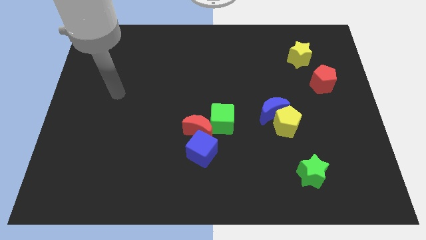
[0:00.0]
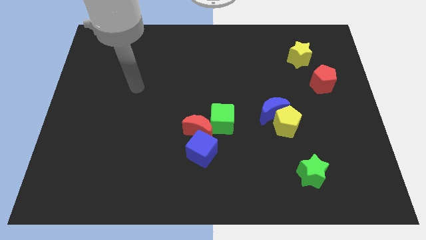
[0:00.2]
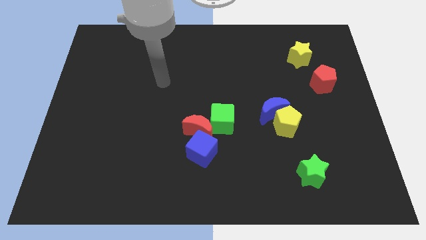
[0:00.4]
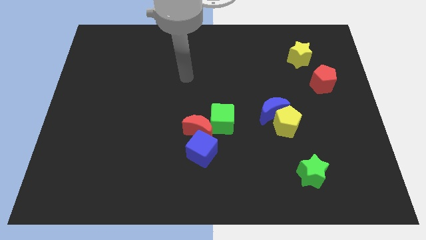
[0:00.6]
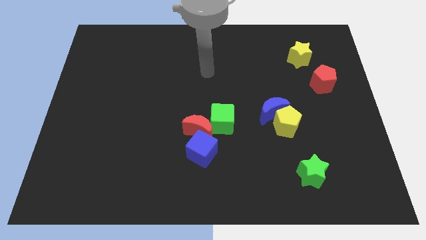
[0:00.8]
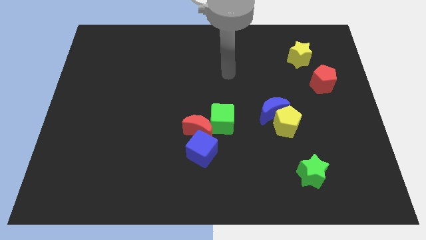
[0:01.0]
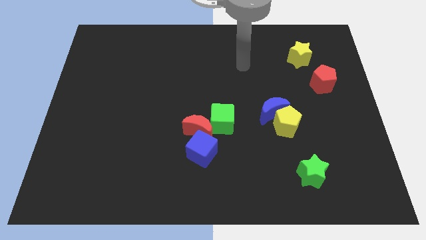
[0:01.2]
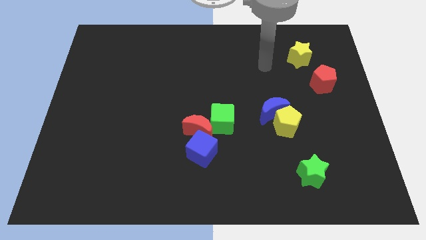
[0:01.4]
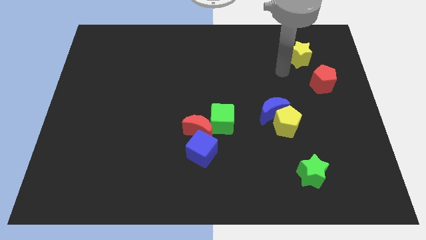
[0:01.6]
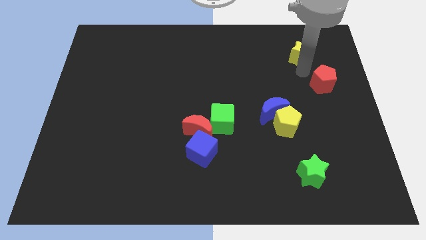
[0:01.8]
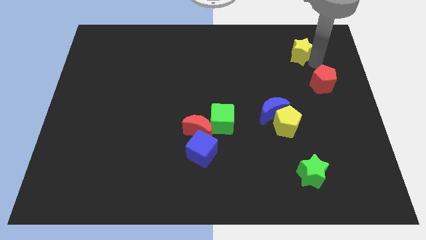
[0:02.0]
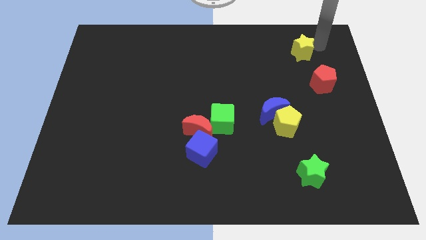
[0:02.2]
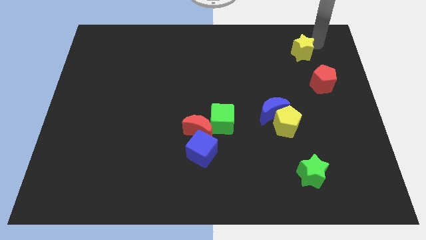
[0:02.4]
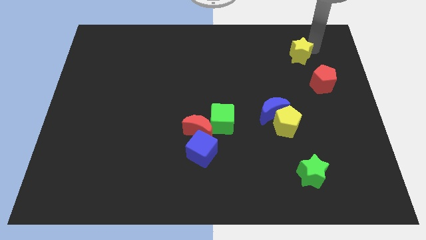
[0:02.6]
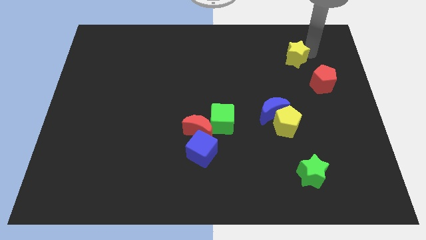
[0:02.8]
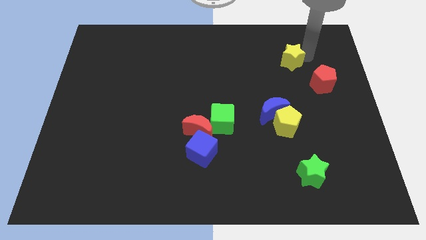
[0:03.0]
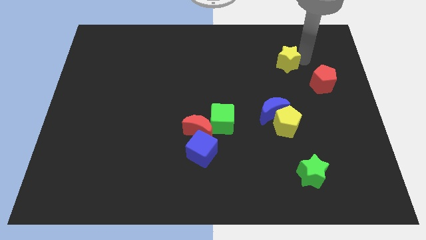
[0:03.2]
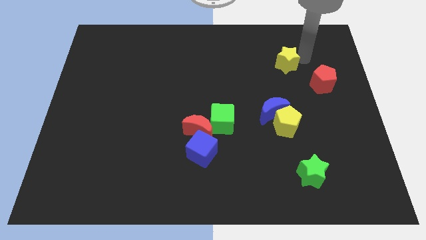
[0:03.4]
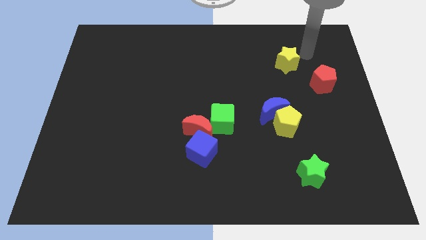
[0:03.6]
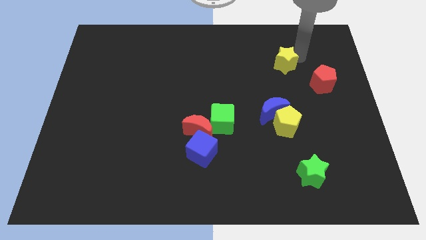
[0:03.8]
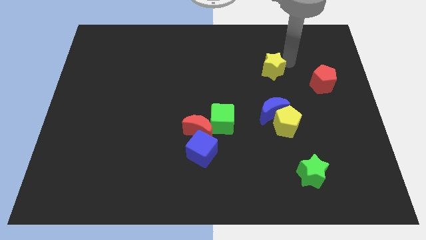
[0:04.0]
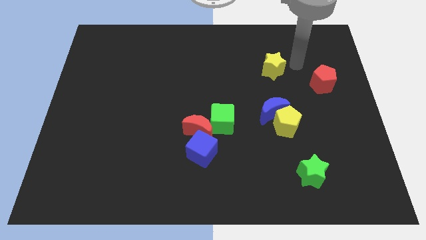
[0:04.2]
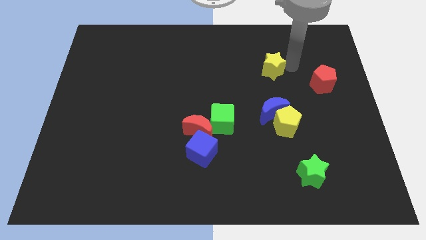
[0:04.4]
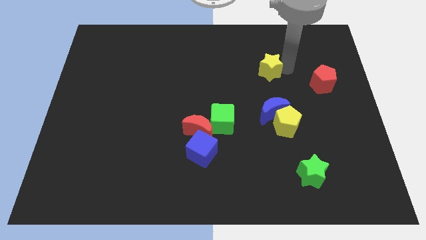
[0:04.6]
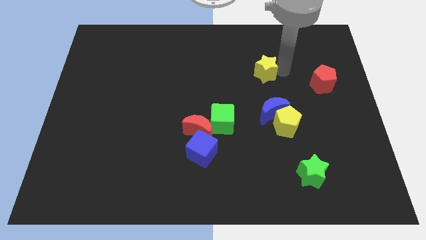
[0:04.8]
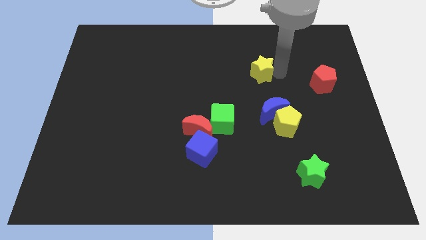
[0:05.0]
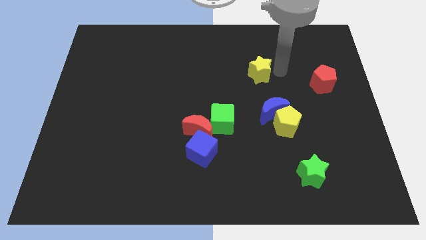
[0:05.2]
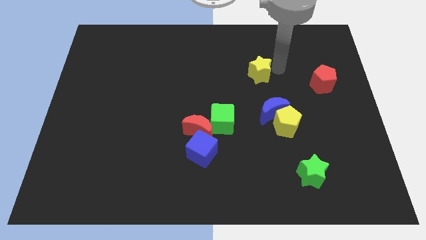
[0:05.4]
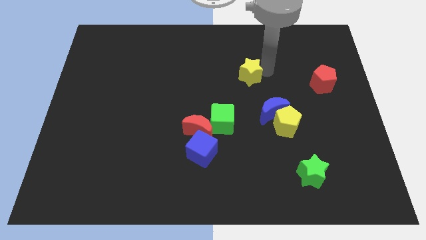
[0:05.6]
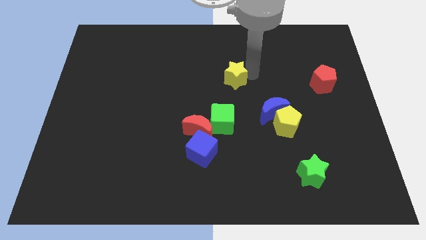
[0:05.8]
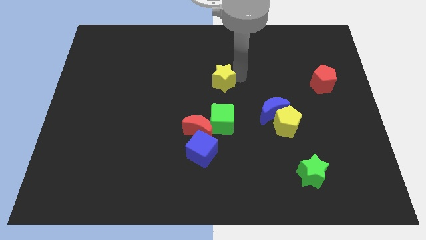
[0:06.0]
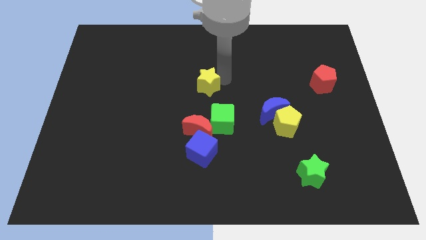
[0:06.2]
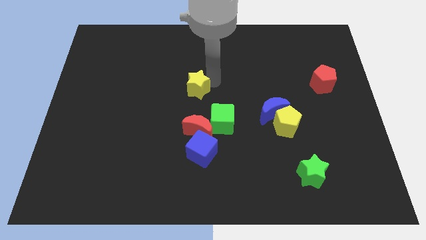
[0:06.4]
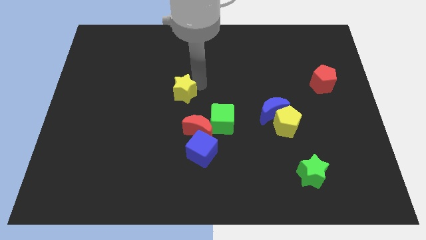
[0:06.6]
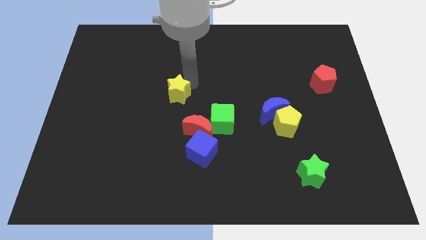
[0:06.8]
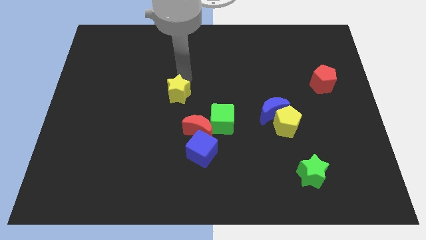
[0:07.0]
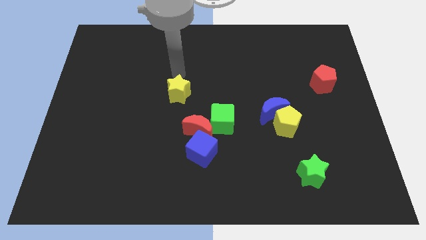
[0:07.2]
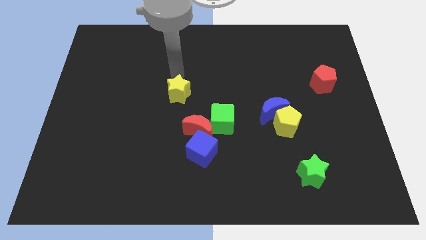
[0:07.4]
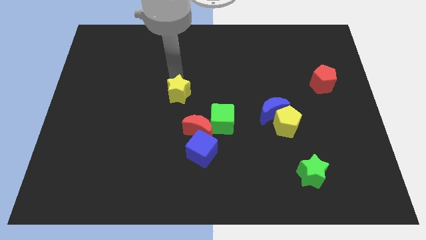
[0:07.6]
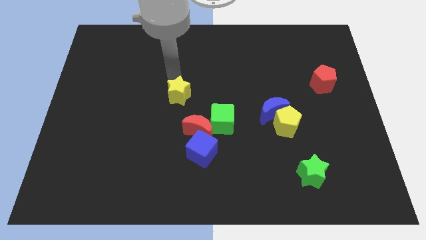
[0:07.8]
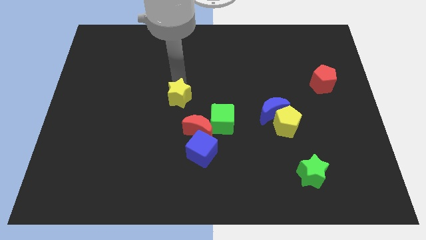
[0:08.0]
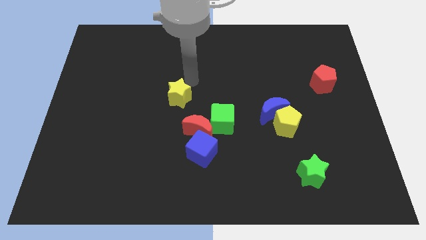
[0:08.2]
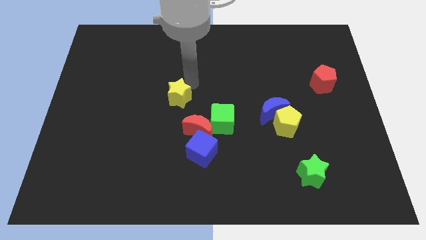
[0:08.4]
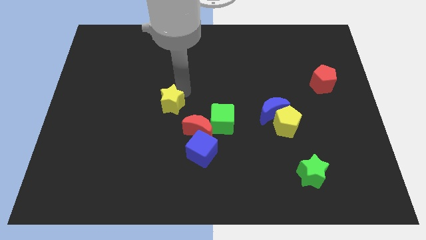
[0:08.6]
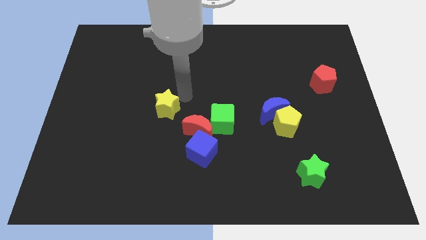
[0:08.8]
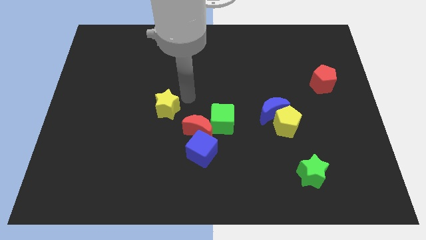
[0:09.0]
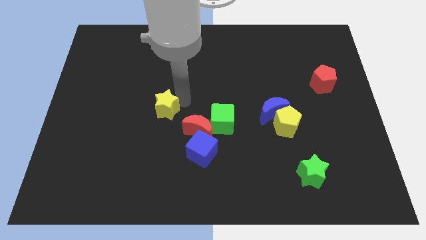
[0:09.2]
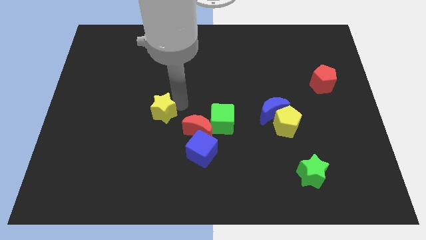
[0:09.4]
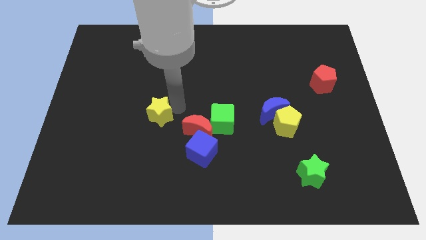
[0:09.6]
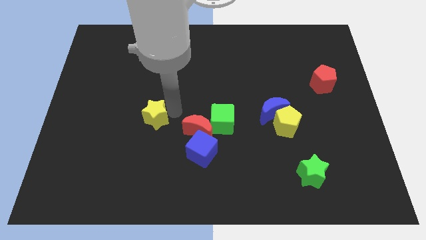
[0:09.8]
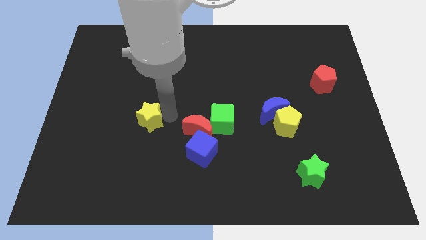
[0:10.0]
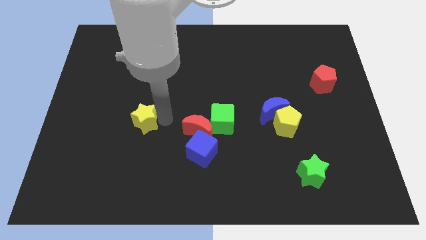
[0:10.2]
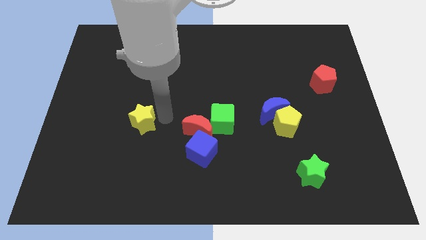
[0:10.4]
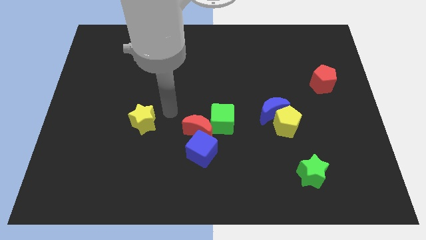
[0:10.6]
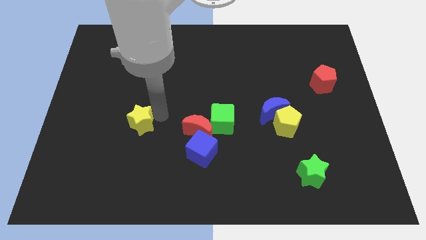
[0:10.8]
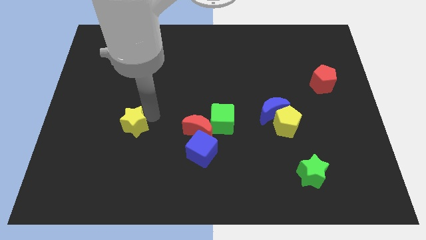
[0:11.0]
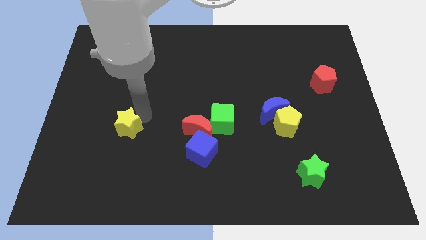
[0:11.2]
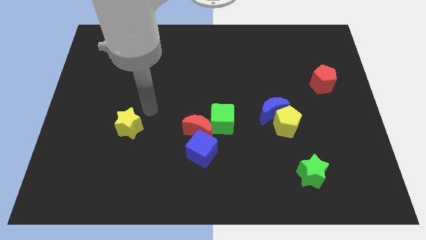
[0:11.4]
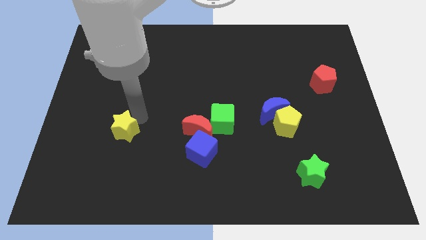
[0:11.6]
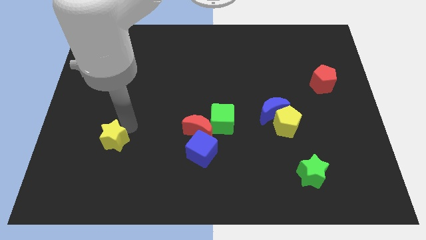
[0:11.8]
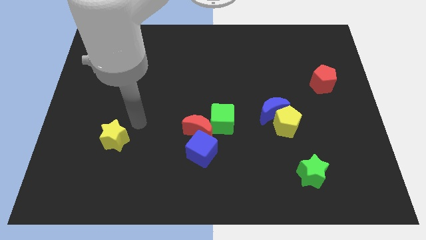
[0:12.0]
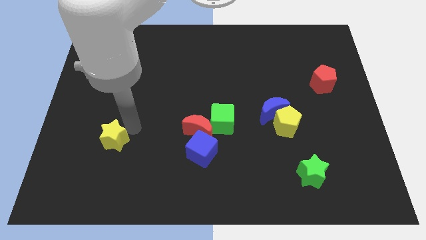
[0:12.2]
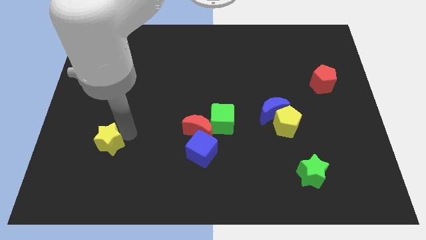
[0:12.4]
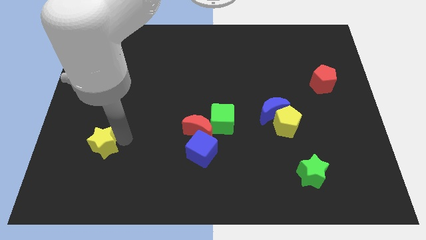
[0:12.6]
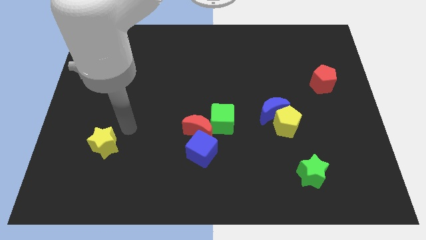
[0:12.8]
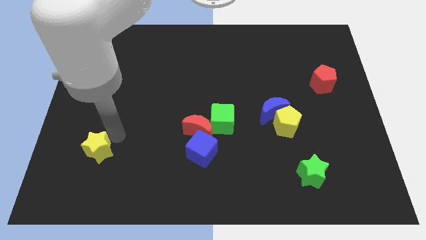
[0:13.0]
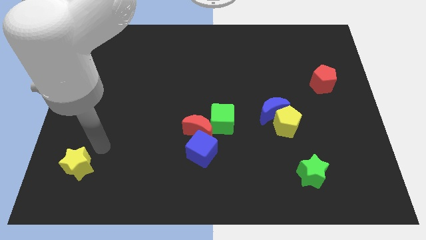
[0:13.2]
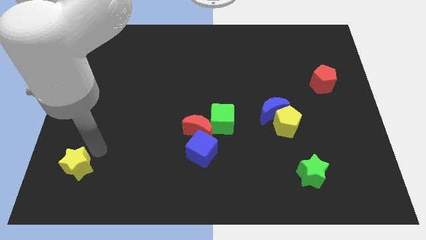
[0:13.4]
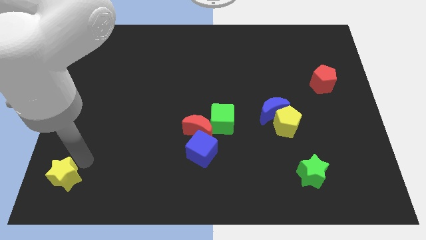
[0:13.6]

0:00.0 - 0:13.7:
move the yellow star to the bottom left
